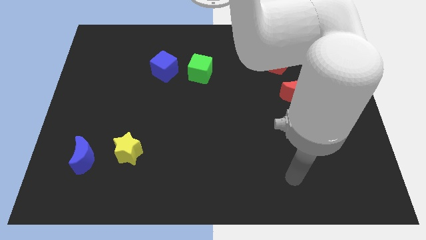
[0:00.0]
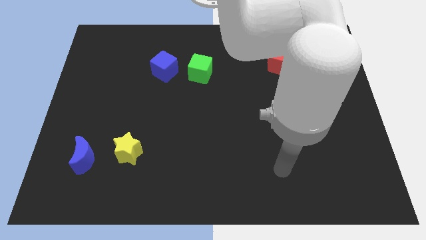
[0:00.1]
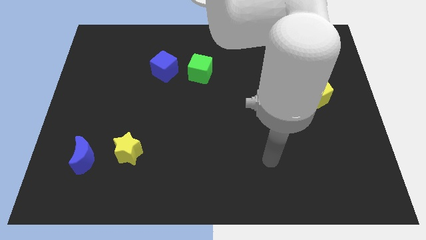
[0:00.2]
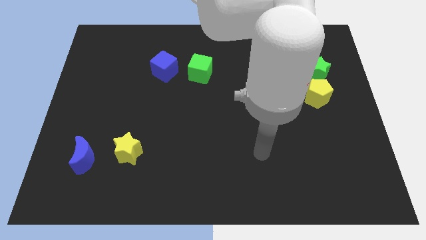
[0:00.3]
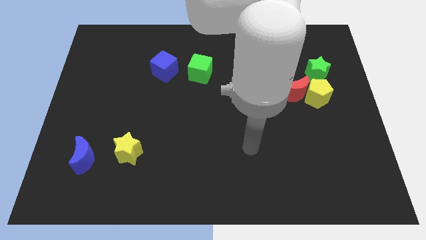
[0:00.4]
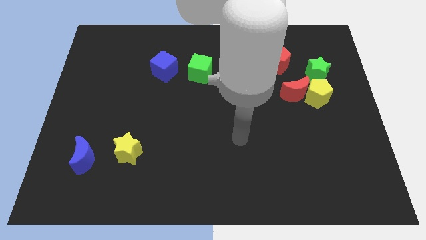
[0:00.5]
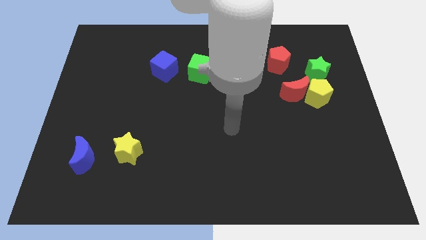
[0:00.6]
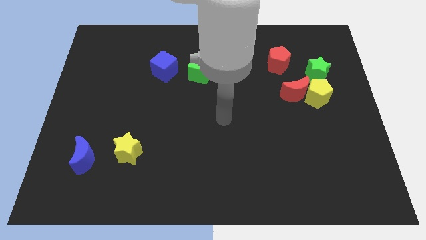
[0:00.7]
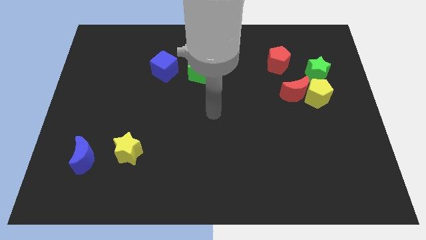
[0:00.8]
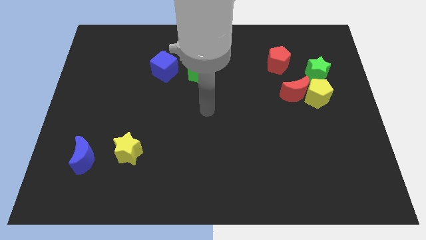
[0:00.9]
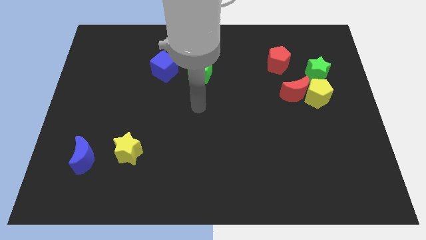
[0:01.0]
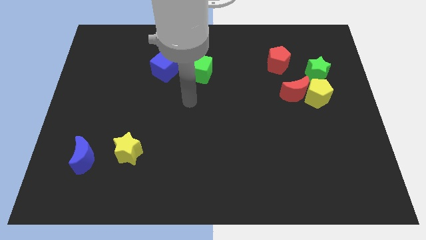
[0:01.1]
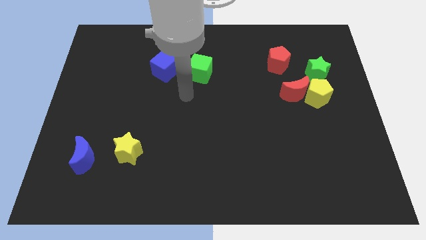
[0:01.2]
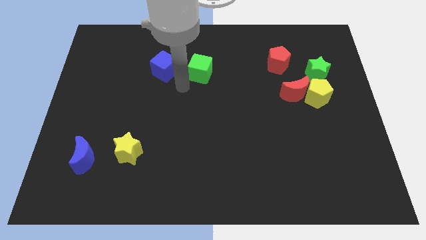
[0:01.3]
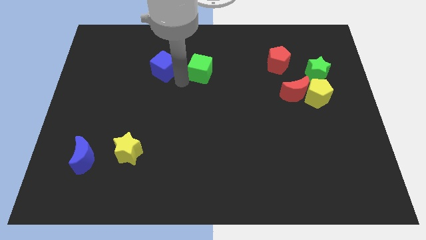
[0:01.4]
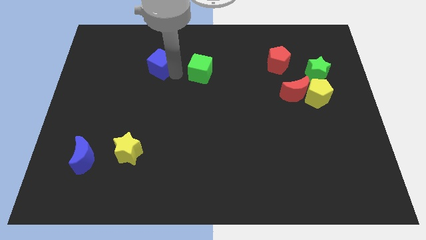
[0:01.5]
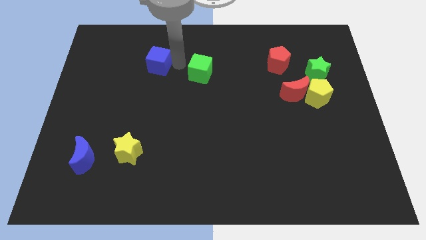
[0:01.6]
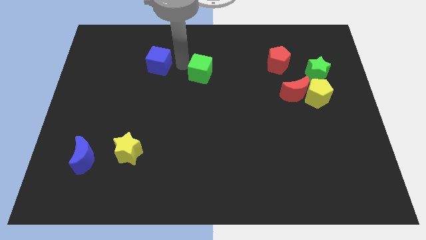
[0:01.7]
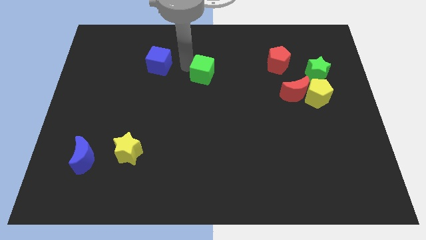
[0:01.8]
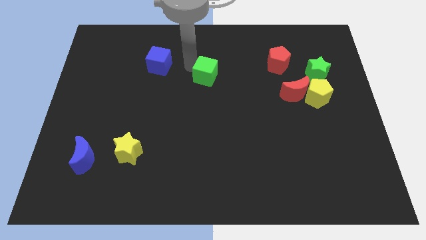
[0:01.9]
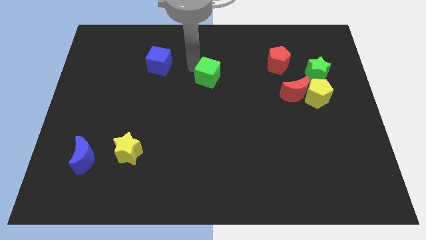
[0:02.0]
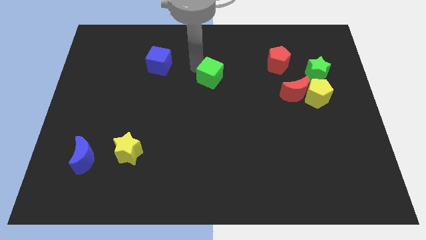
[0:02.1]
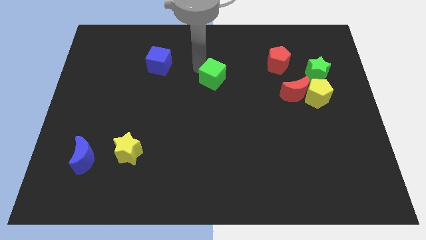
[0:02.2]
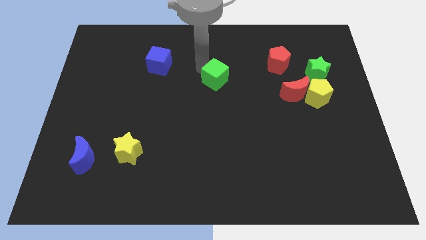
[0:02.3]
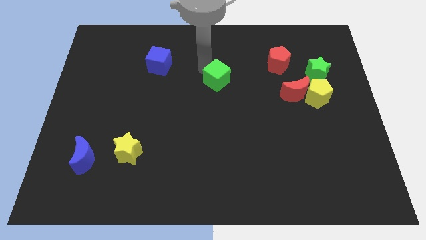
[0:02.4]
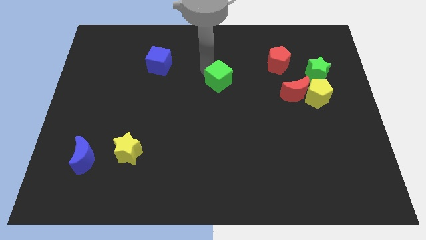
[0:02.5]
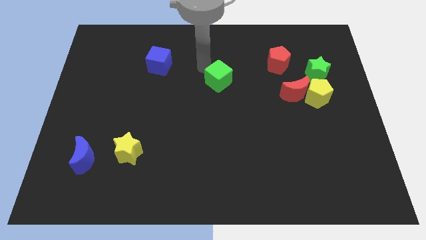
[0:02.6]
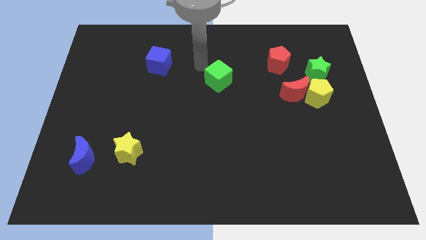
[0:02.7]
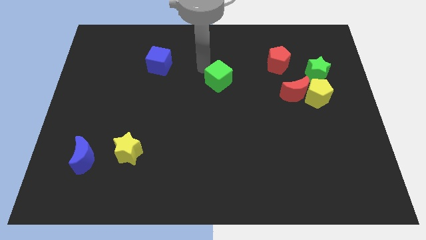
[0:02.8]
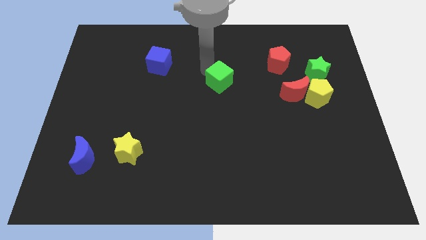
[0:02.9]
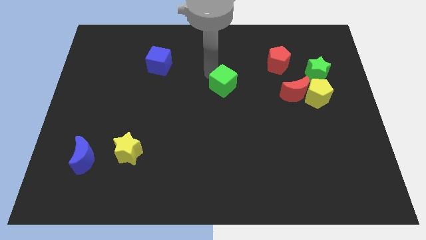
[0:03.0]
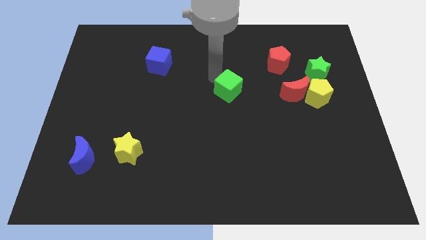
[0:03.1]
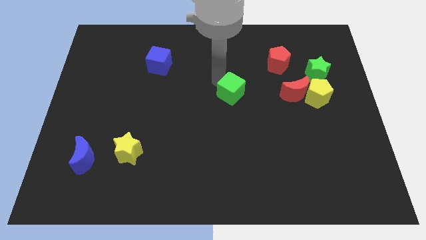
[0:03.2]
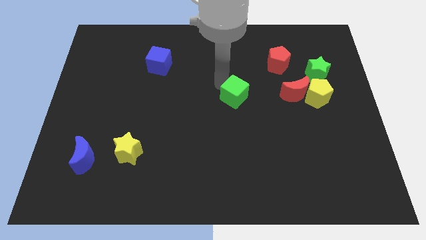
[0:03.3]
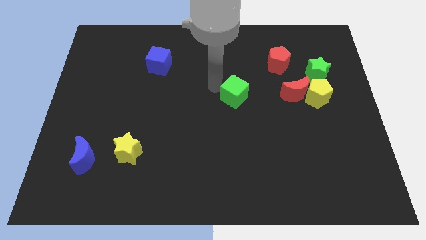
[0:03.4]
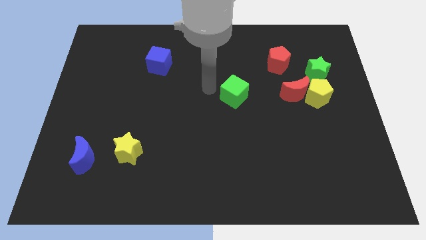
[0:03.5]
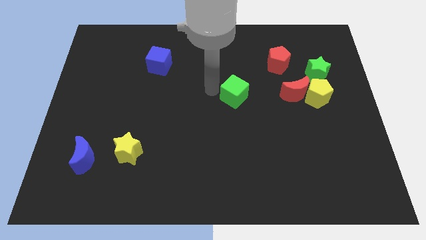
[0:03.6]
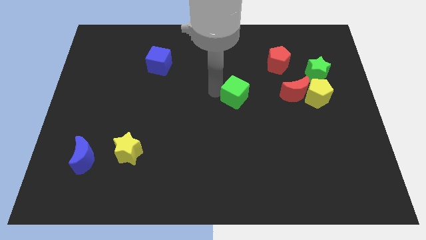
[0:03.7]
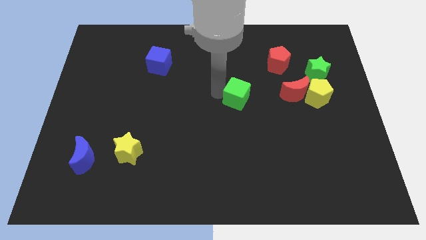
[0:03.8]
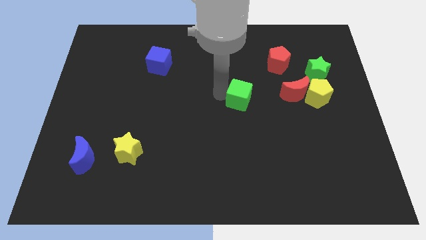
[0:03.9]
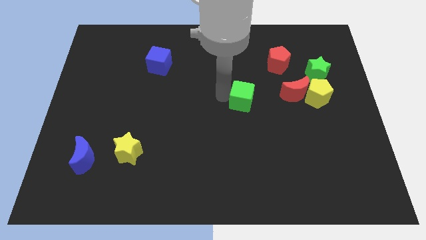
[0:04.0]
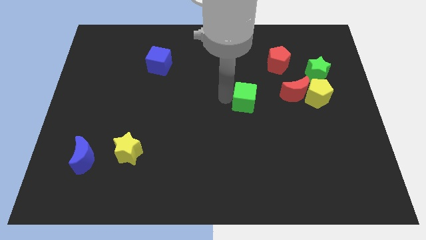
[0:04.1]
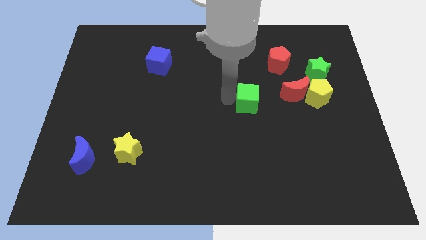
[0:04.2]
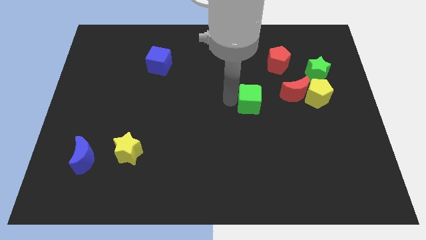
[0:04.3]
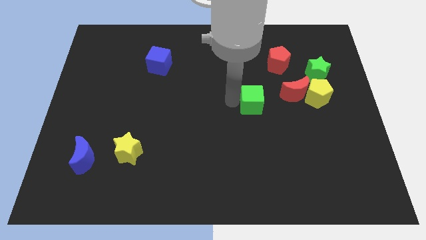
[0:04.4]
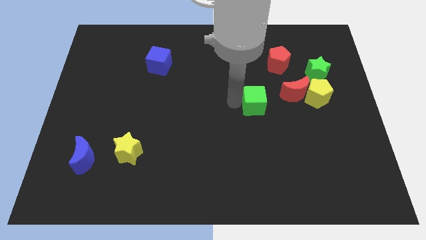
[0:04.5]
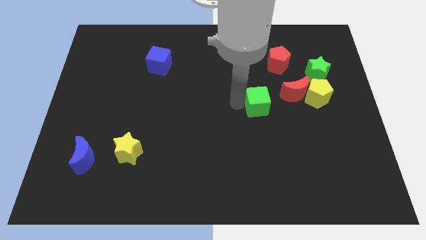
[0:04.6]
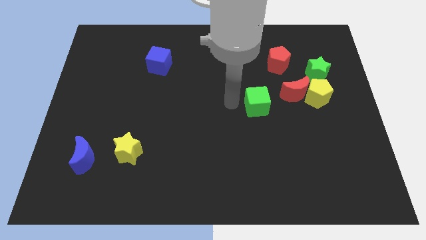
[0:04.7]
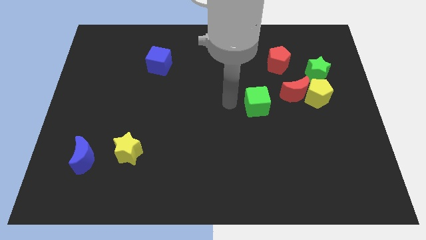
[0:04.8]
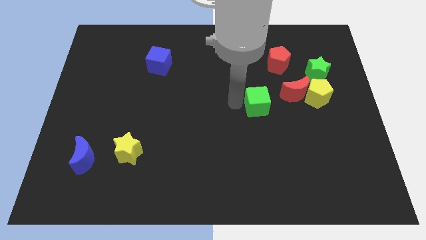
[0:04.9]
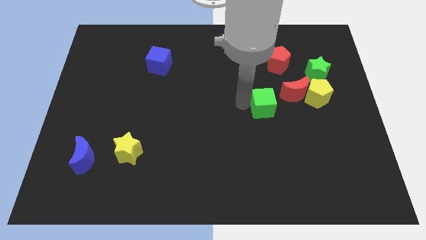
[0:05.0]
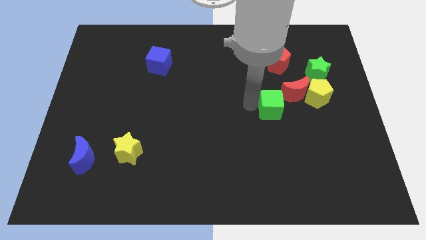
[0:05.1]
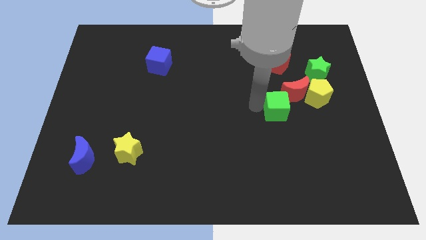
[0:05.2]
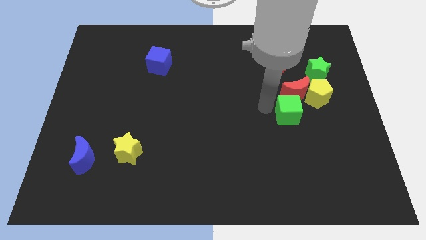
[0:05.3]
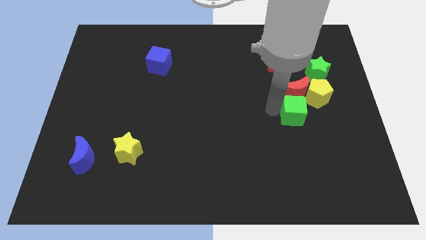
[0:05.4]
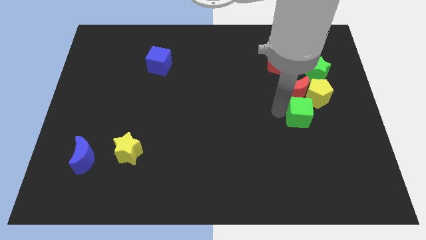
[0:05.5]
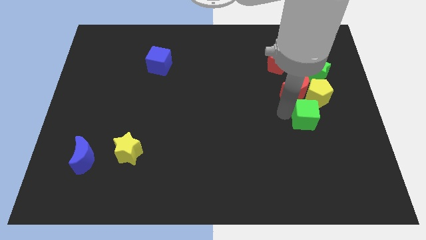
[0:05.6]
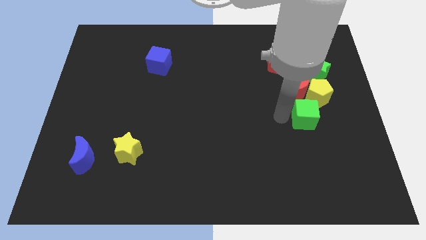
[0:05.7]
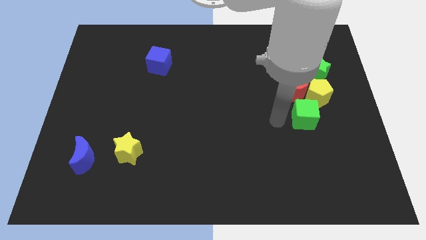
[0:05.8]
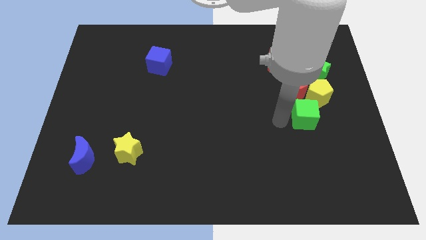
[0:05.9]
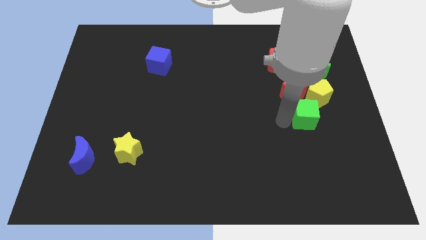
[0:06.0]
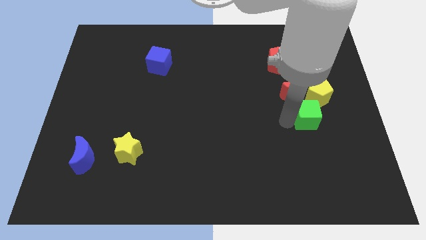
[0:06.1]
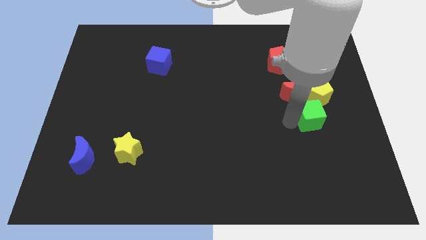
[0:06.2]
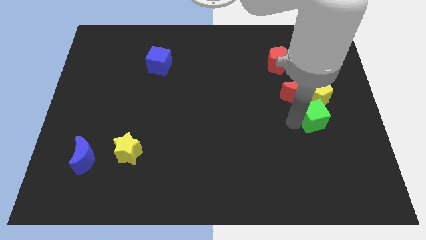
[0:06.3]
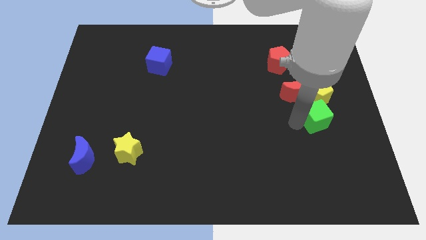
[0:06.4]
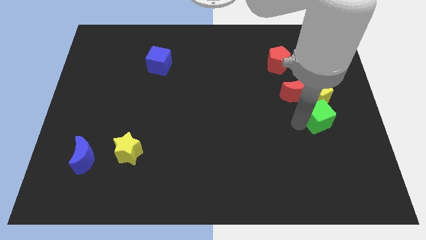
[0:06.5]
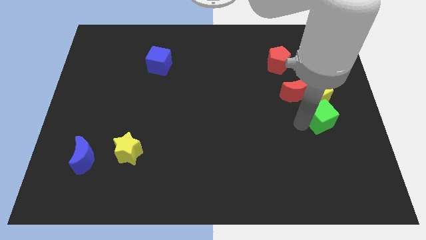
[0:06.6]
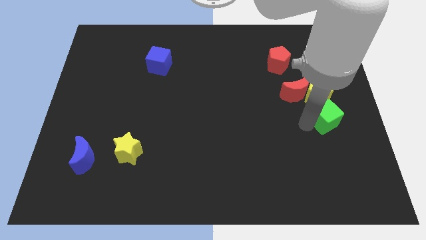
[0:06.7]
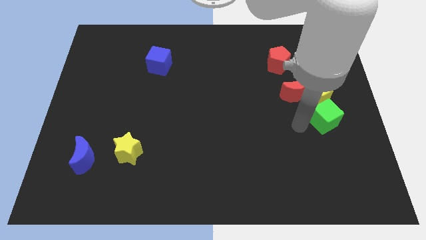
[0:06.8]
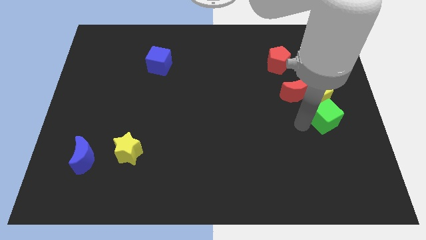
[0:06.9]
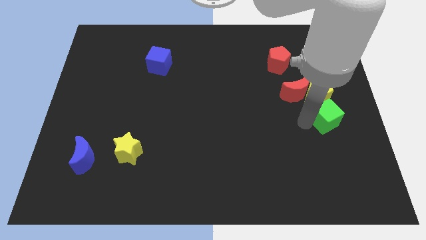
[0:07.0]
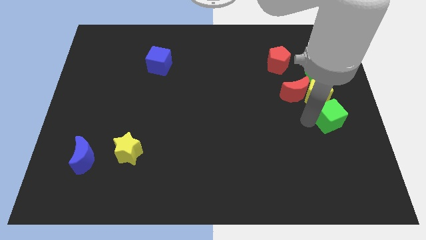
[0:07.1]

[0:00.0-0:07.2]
slide the green cube to the right side of the board

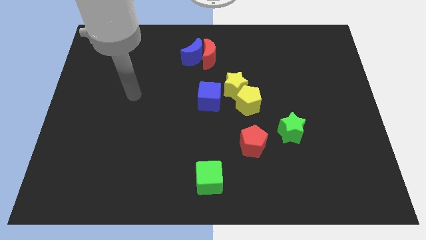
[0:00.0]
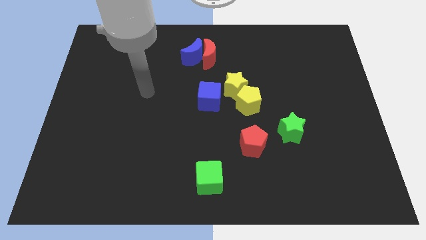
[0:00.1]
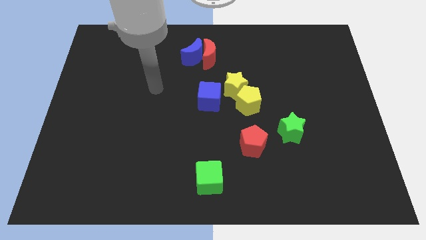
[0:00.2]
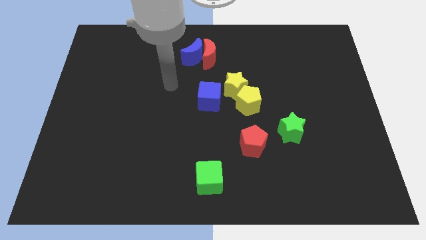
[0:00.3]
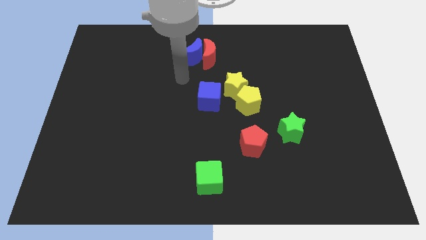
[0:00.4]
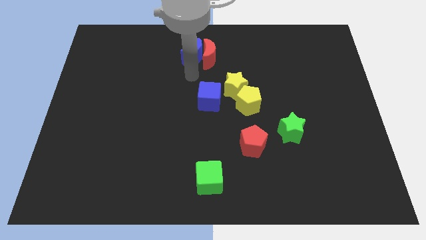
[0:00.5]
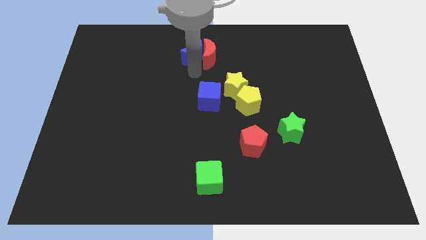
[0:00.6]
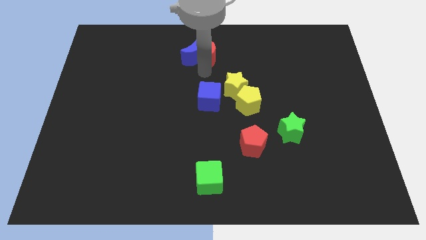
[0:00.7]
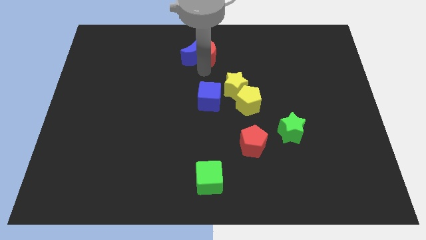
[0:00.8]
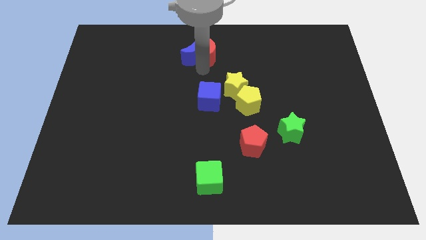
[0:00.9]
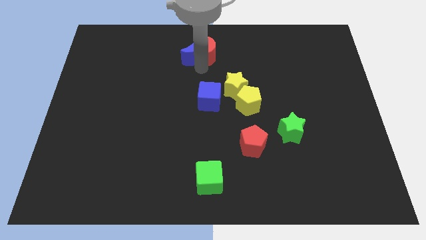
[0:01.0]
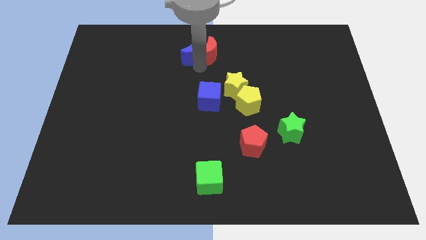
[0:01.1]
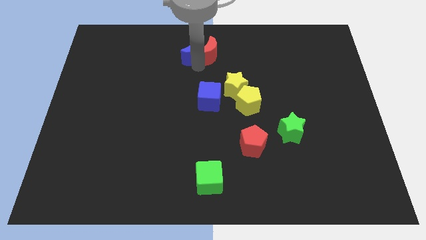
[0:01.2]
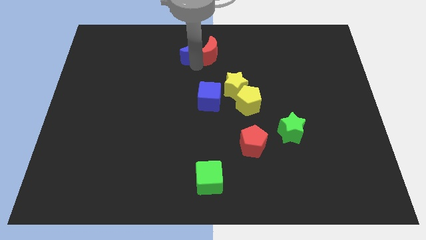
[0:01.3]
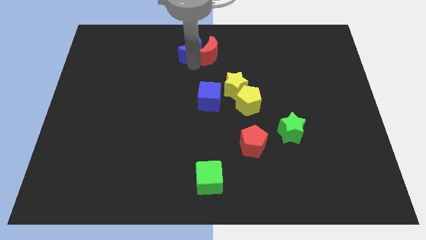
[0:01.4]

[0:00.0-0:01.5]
slide the blue moon to the top side
